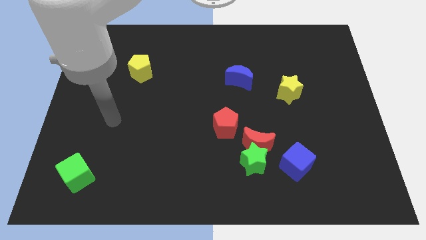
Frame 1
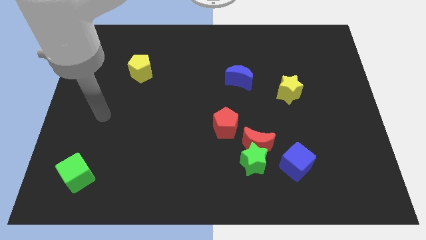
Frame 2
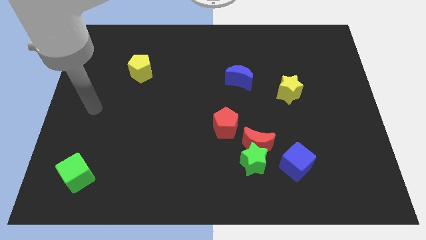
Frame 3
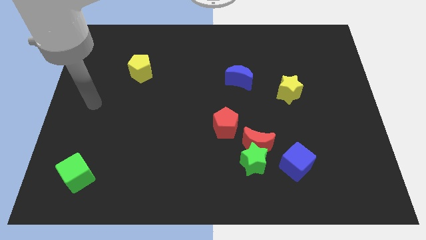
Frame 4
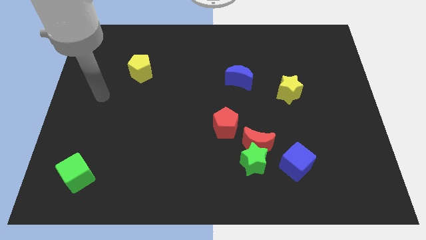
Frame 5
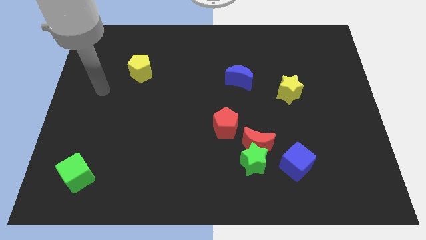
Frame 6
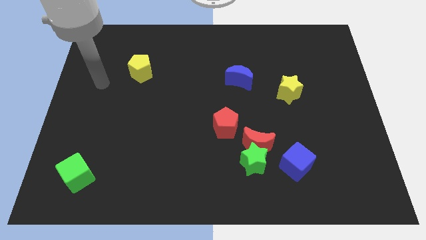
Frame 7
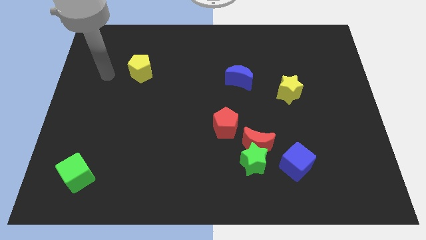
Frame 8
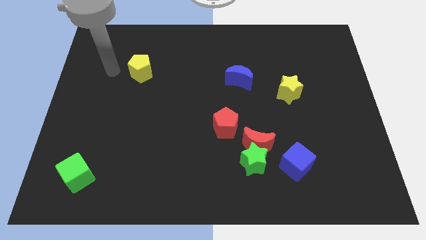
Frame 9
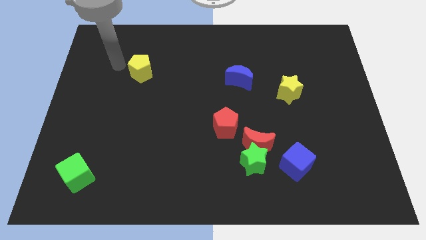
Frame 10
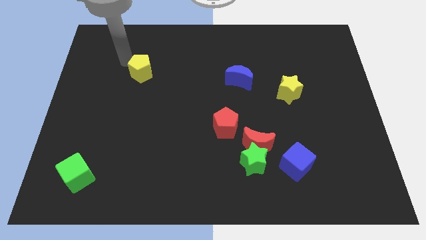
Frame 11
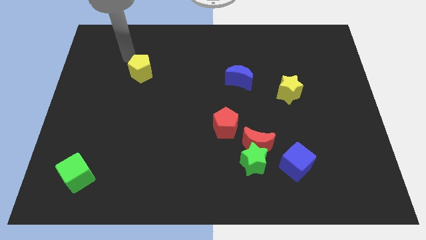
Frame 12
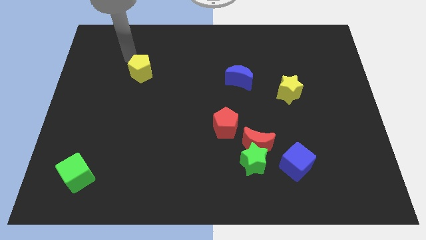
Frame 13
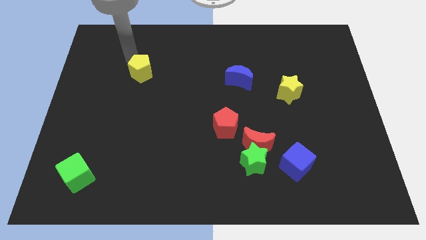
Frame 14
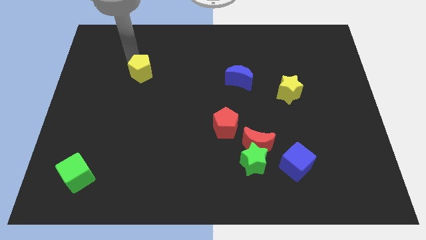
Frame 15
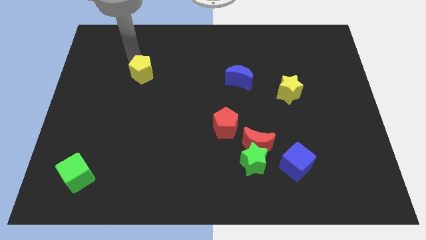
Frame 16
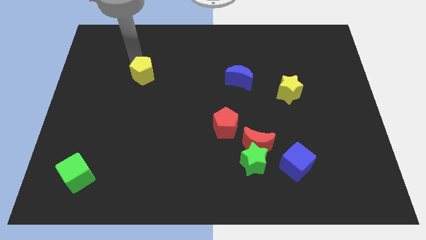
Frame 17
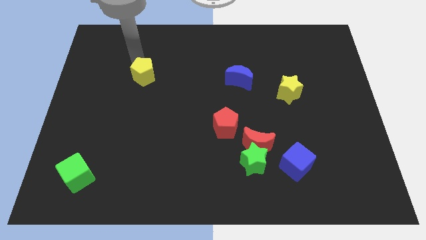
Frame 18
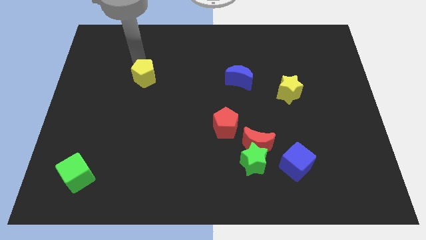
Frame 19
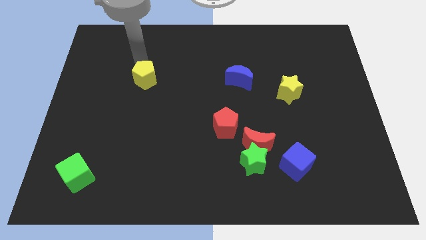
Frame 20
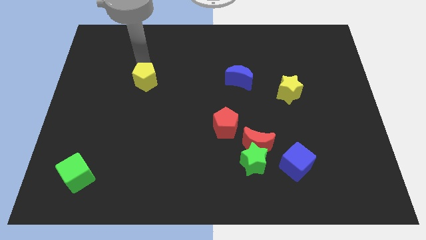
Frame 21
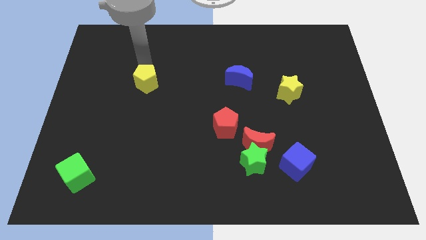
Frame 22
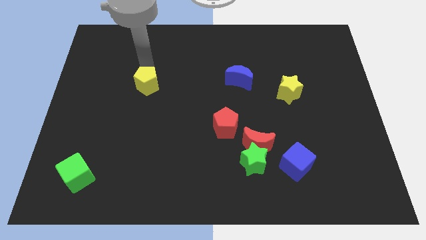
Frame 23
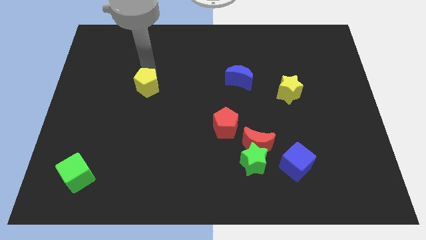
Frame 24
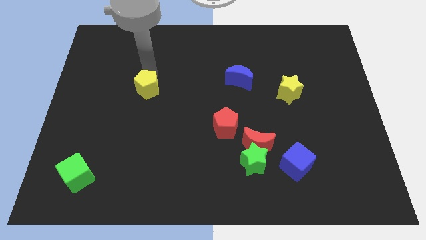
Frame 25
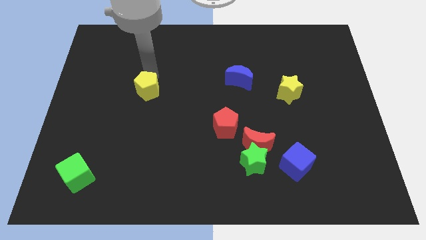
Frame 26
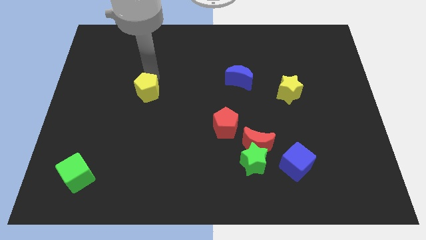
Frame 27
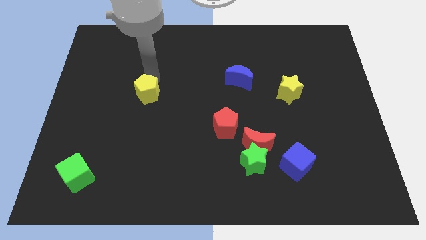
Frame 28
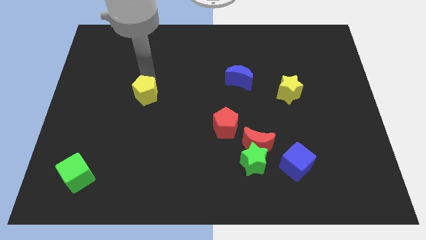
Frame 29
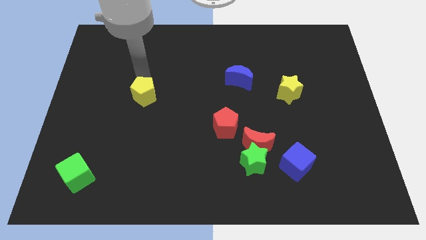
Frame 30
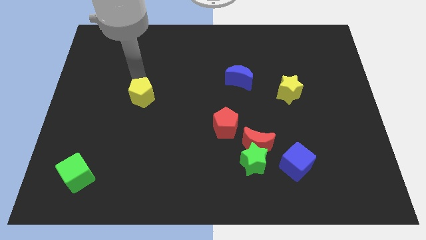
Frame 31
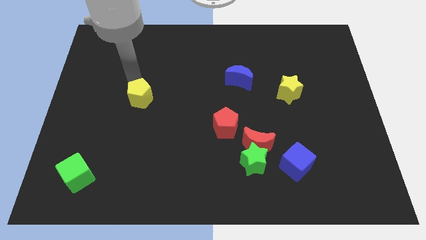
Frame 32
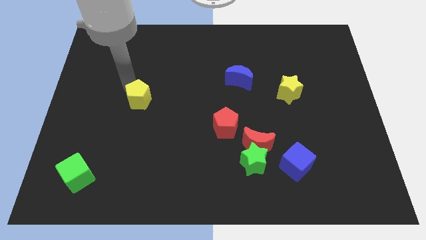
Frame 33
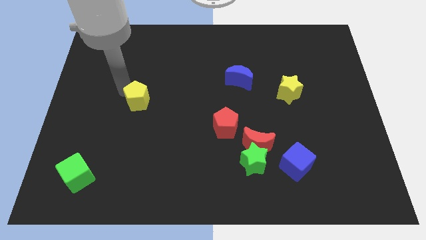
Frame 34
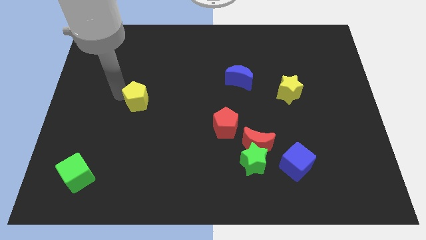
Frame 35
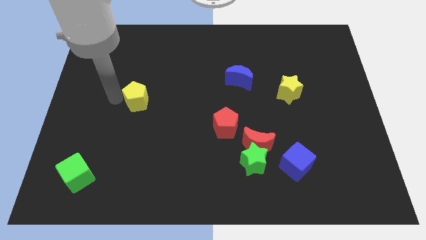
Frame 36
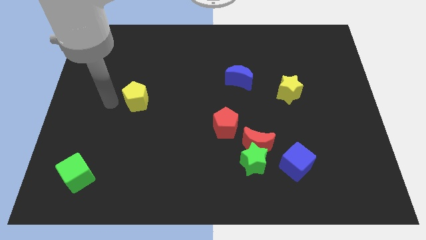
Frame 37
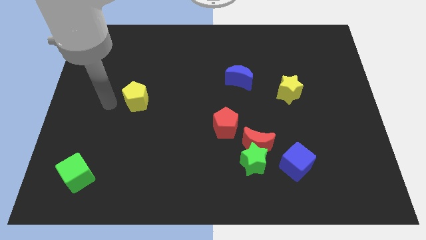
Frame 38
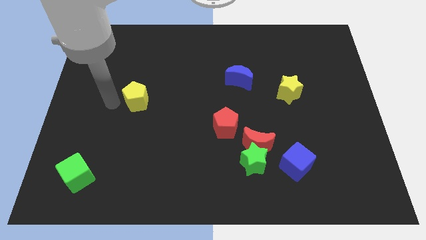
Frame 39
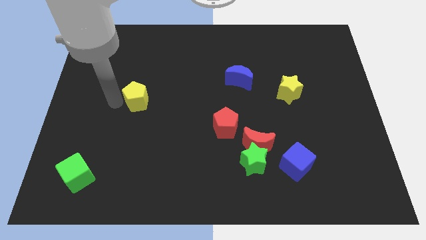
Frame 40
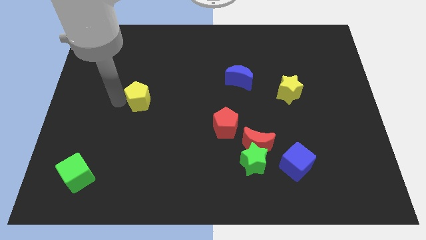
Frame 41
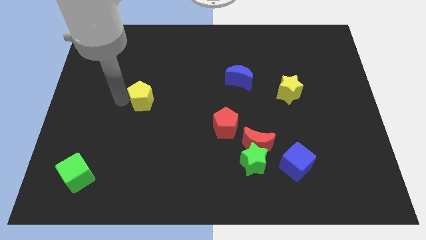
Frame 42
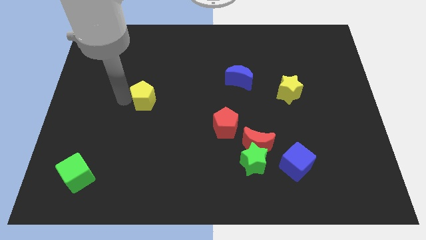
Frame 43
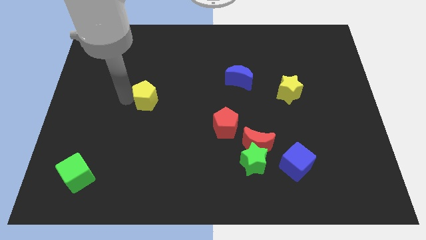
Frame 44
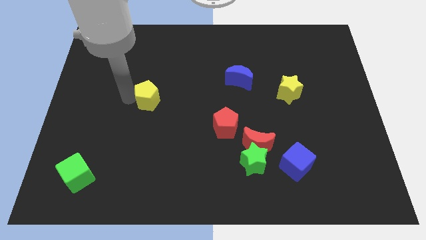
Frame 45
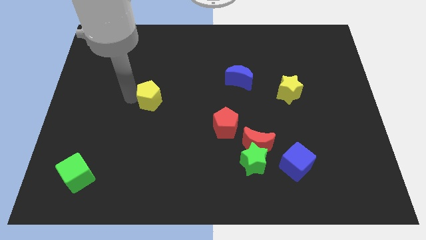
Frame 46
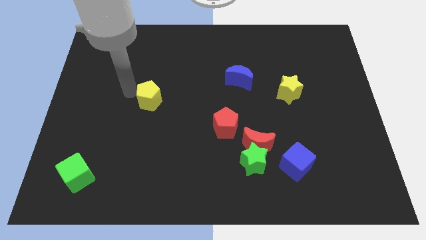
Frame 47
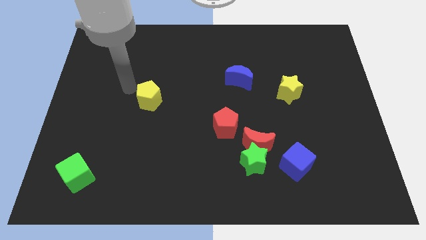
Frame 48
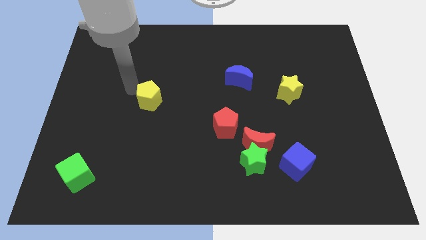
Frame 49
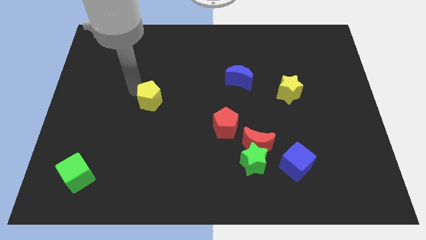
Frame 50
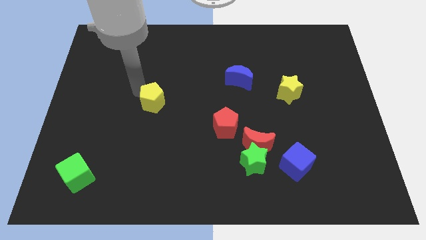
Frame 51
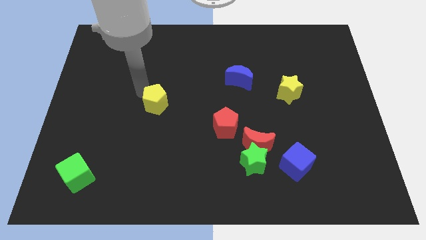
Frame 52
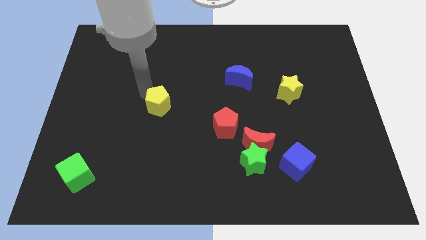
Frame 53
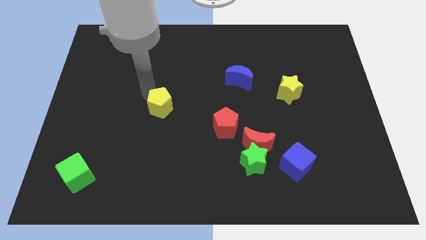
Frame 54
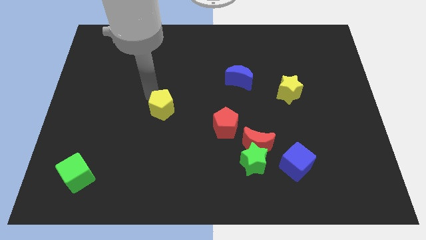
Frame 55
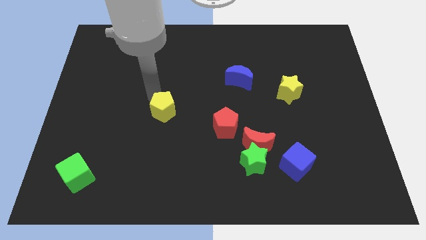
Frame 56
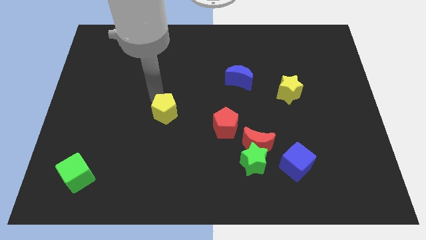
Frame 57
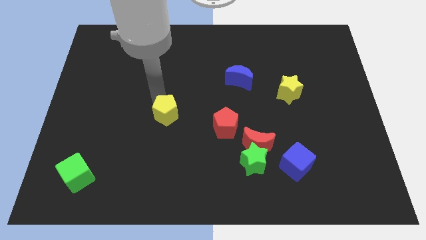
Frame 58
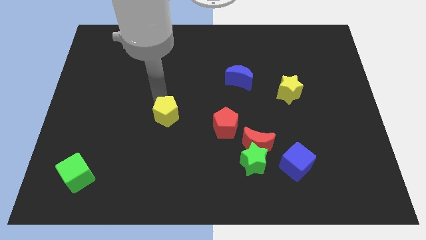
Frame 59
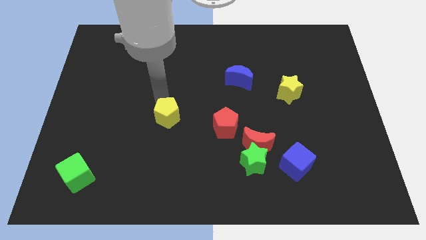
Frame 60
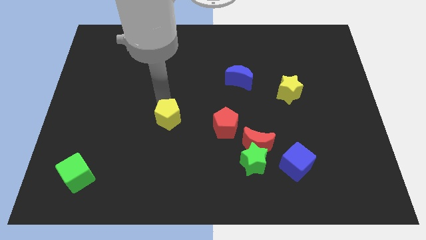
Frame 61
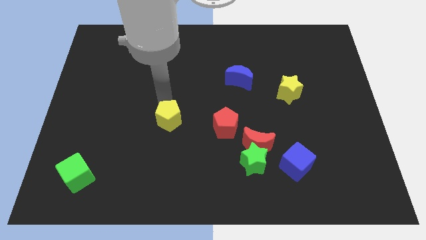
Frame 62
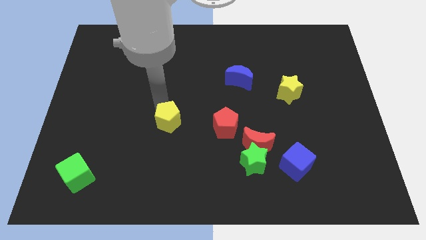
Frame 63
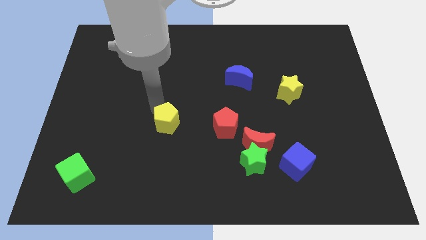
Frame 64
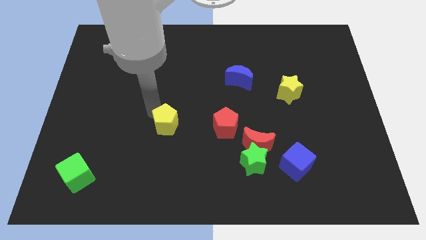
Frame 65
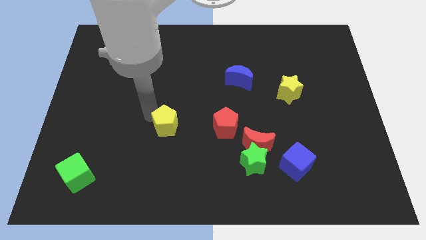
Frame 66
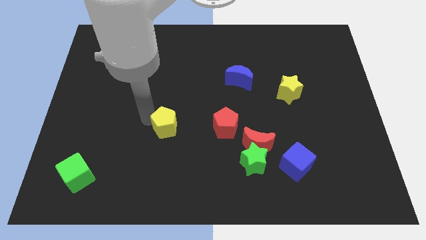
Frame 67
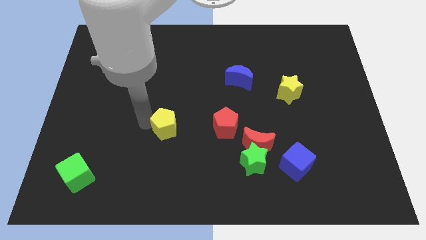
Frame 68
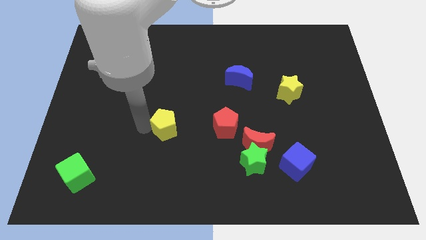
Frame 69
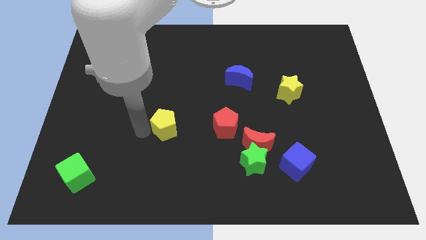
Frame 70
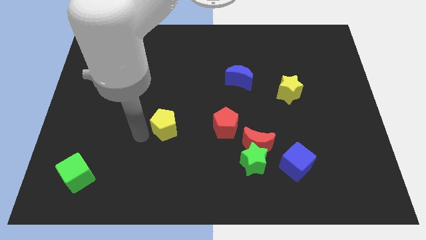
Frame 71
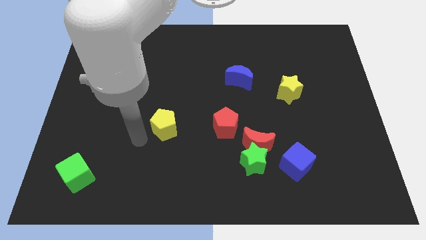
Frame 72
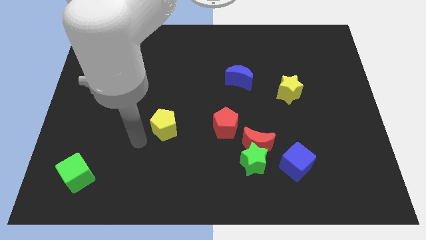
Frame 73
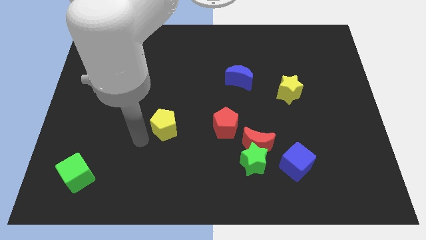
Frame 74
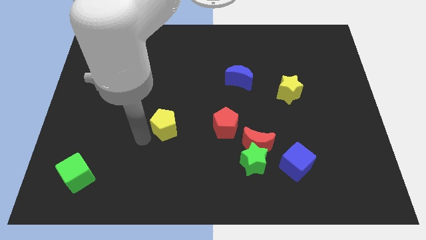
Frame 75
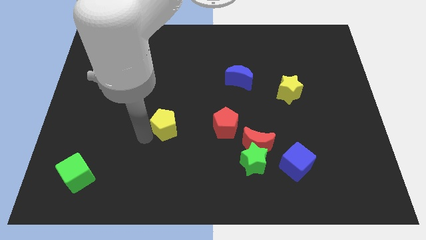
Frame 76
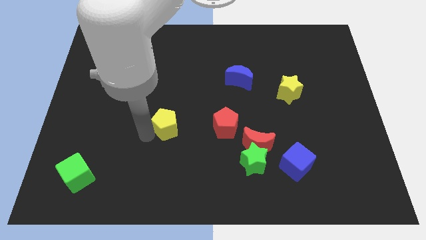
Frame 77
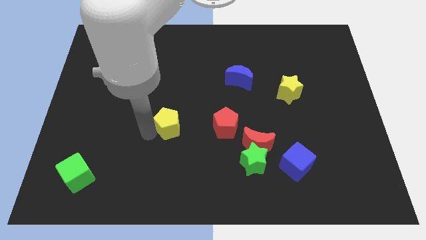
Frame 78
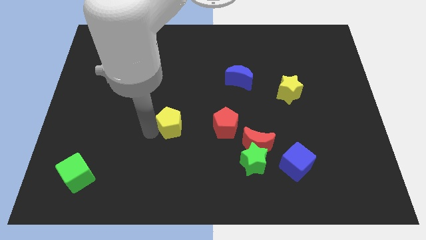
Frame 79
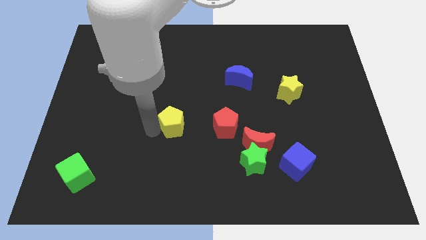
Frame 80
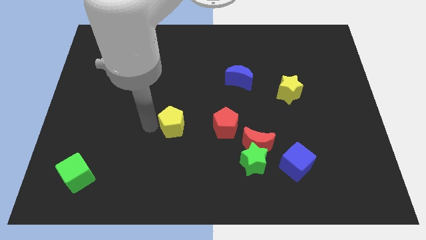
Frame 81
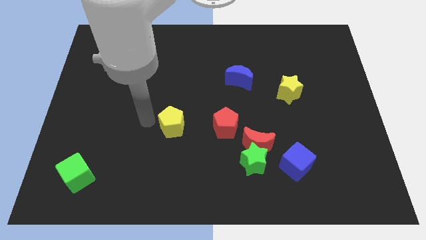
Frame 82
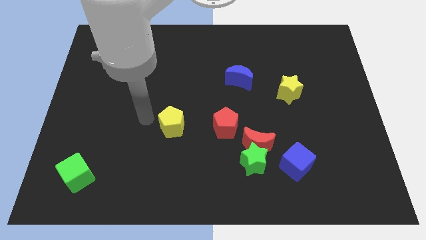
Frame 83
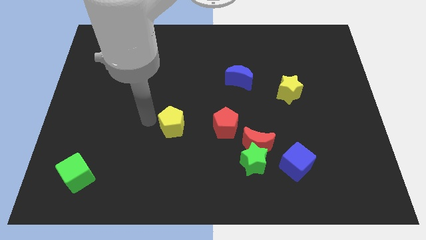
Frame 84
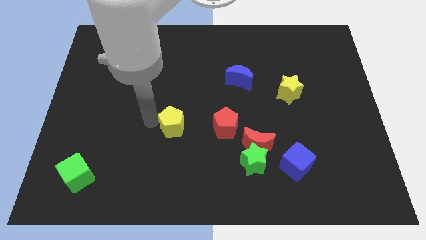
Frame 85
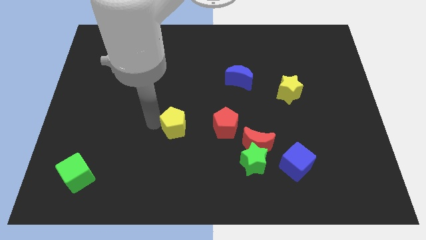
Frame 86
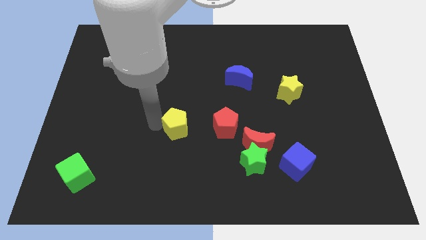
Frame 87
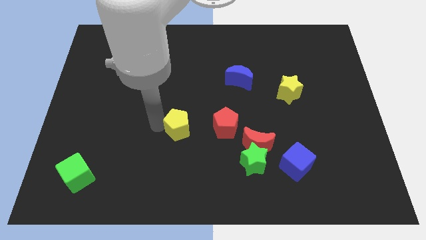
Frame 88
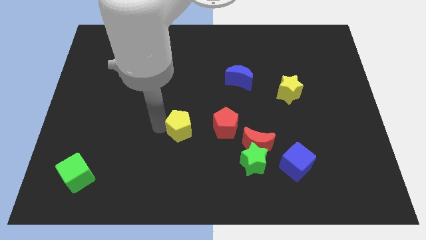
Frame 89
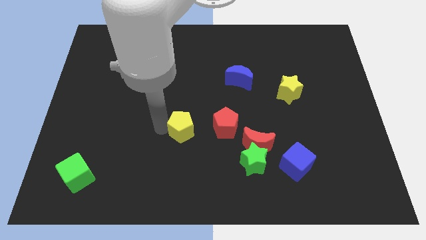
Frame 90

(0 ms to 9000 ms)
slide the yellow pentagon diagonally down and right
